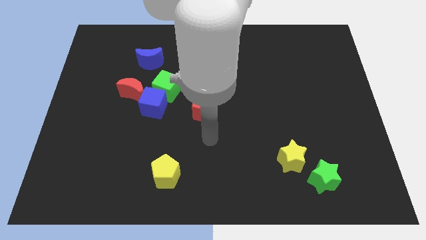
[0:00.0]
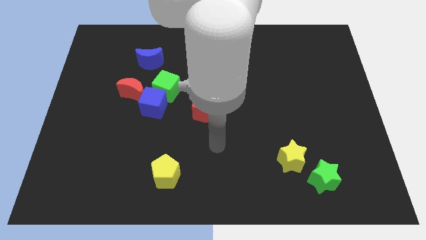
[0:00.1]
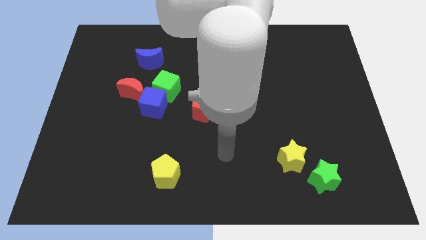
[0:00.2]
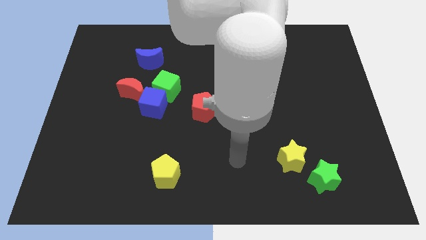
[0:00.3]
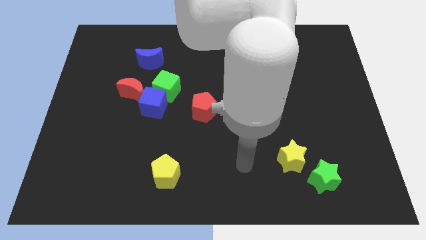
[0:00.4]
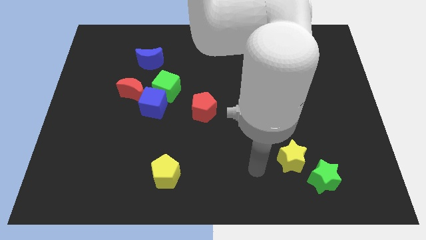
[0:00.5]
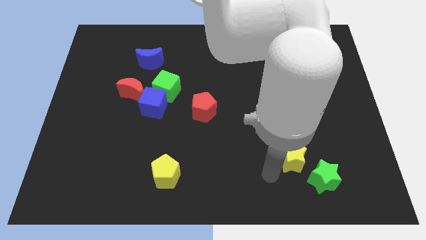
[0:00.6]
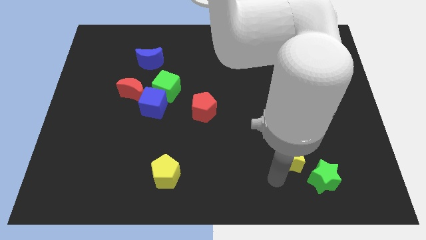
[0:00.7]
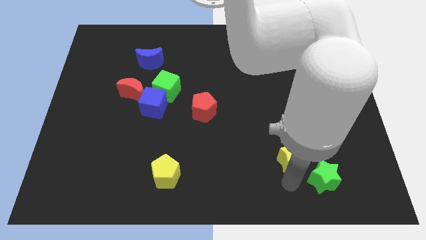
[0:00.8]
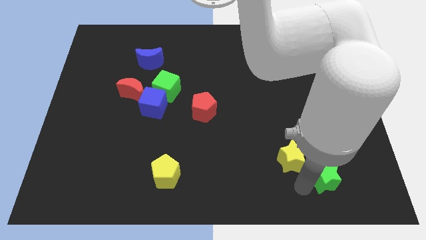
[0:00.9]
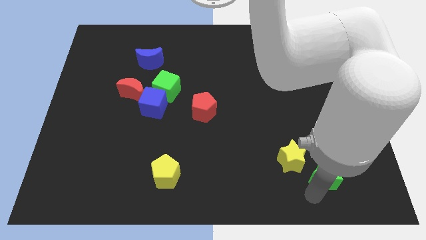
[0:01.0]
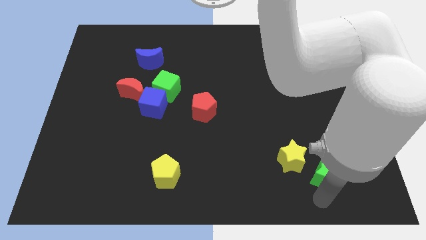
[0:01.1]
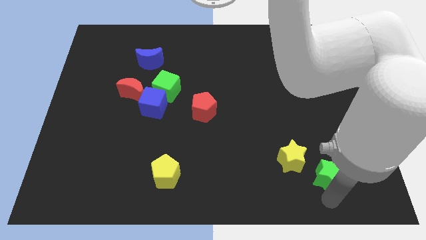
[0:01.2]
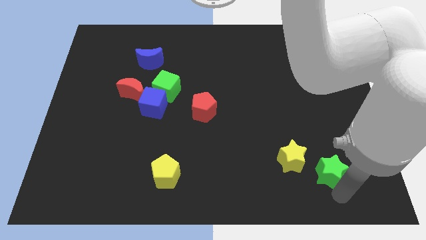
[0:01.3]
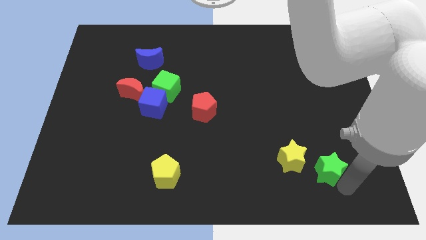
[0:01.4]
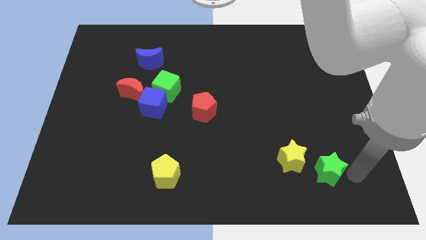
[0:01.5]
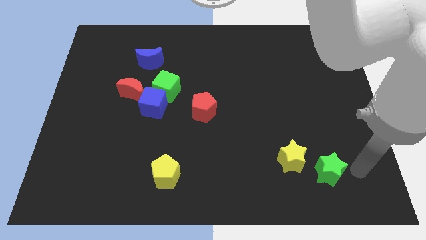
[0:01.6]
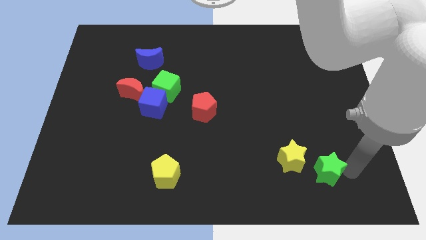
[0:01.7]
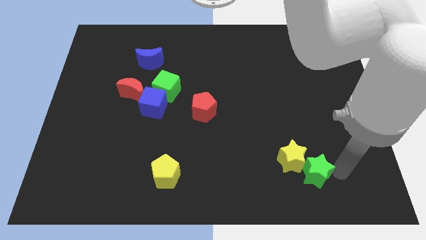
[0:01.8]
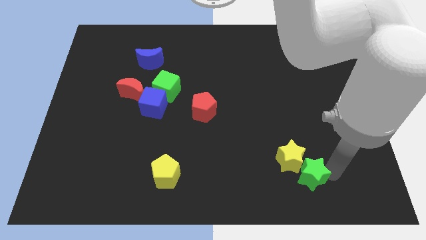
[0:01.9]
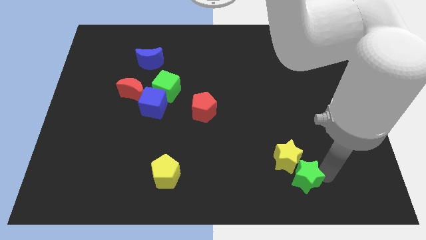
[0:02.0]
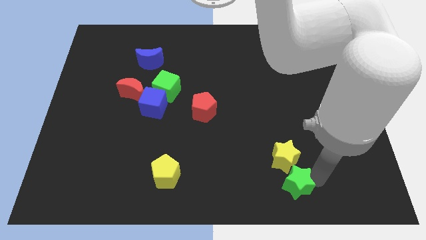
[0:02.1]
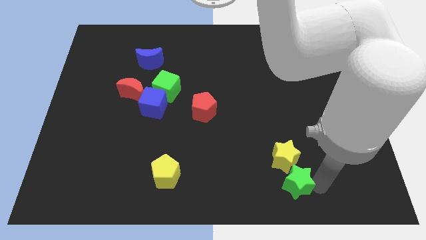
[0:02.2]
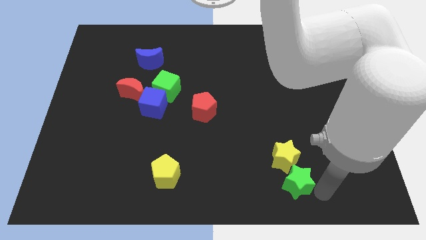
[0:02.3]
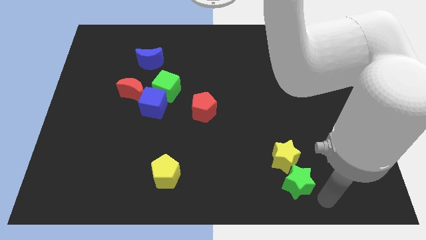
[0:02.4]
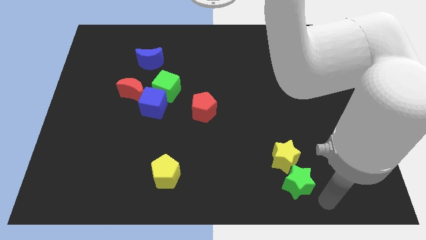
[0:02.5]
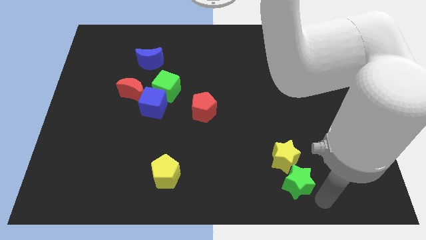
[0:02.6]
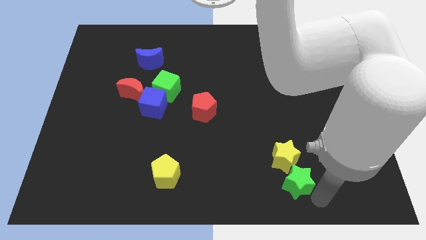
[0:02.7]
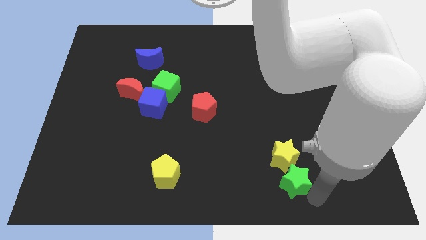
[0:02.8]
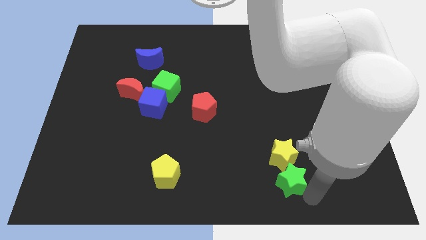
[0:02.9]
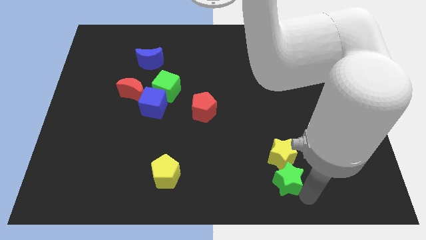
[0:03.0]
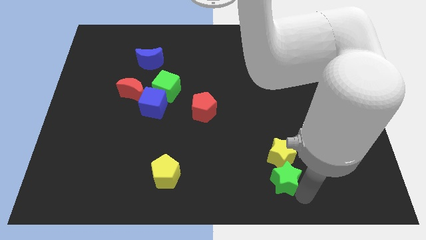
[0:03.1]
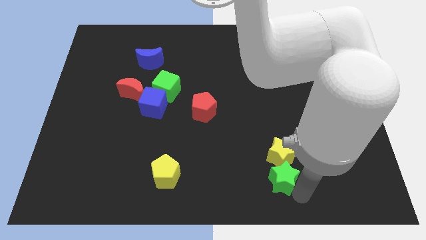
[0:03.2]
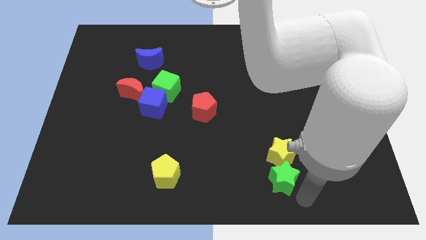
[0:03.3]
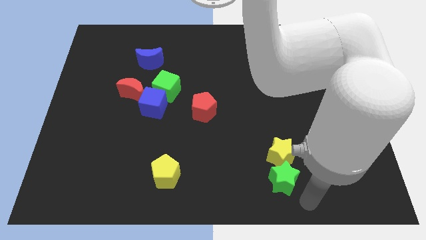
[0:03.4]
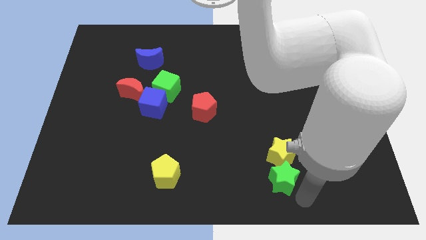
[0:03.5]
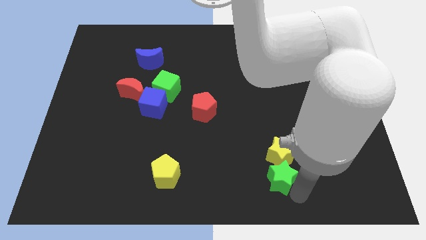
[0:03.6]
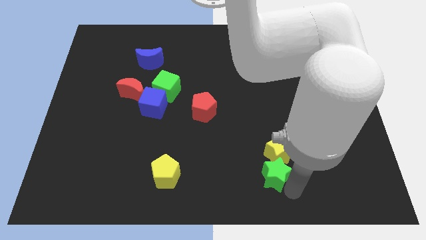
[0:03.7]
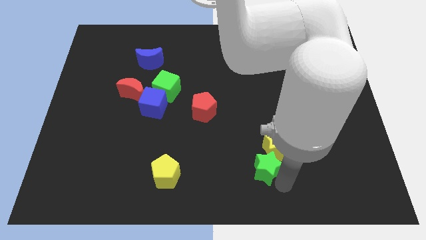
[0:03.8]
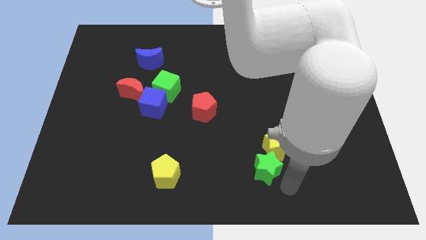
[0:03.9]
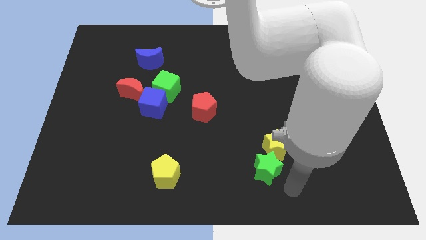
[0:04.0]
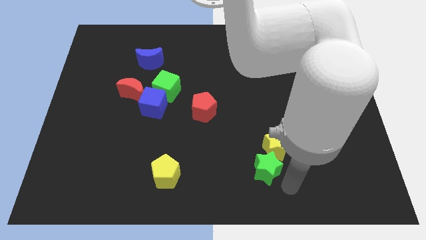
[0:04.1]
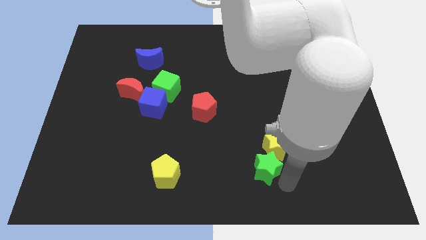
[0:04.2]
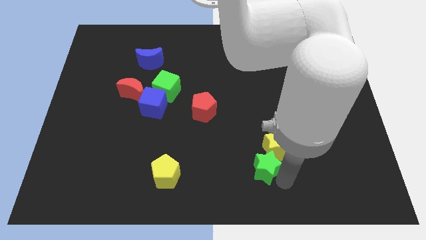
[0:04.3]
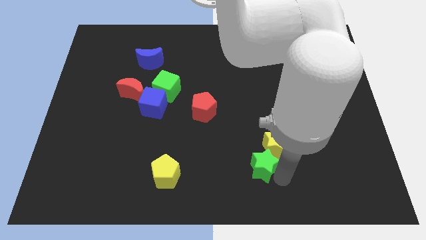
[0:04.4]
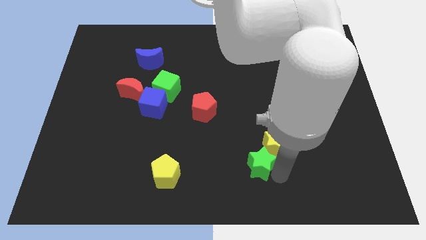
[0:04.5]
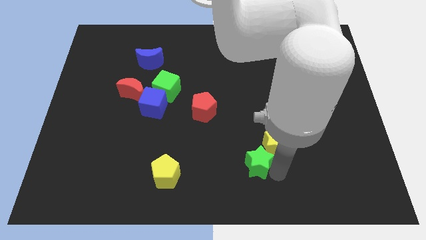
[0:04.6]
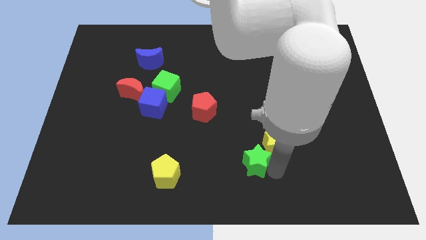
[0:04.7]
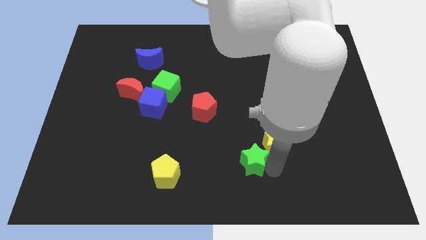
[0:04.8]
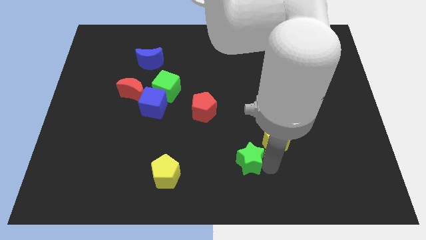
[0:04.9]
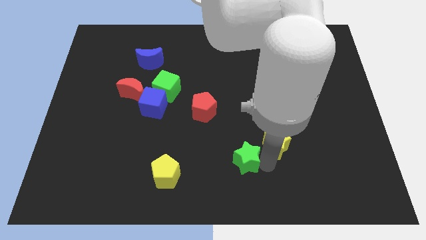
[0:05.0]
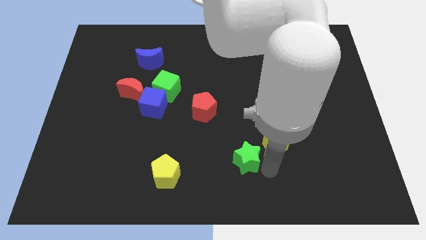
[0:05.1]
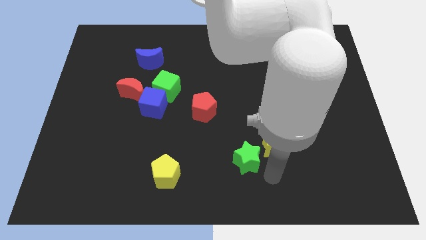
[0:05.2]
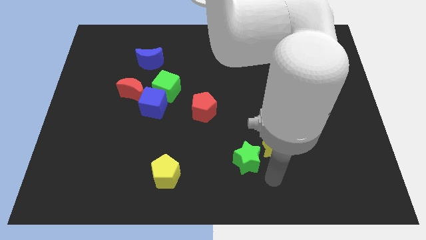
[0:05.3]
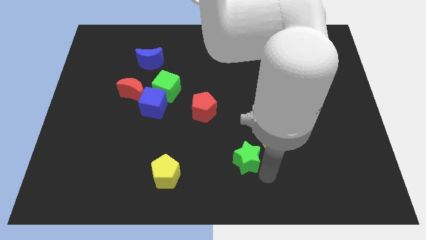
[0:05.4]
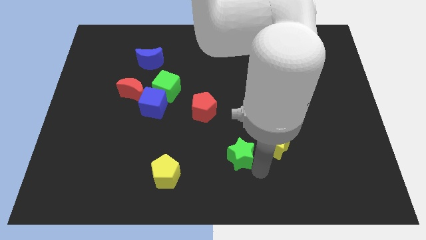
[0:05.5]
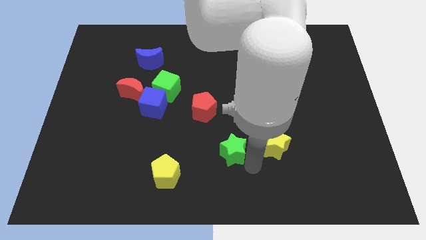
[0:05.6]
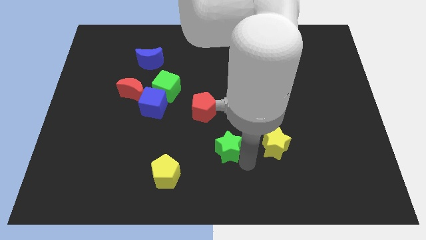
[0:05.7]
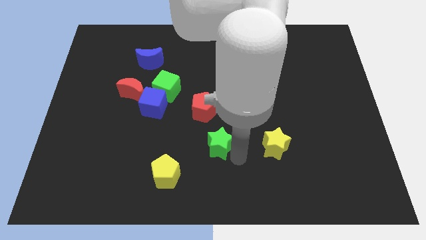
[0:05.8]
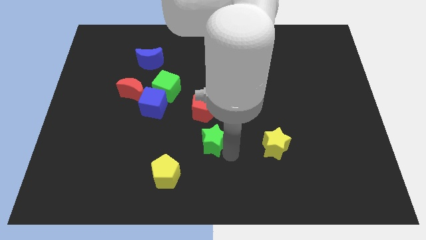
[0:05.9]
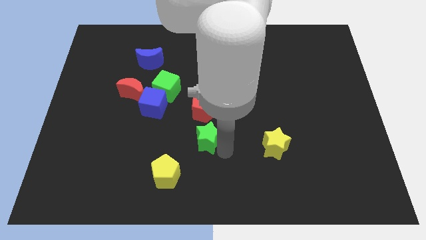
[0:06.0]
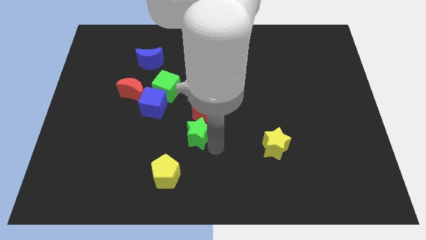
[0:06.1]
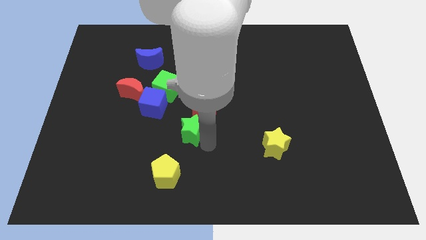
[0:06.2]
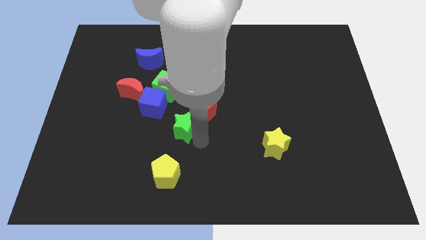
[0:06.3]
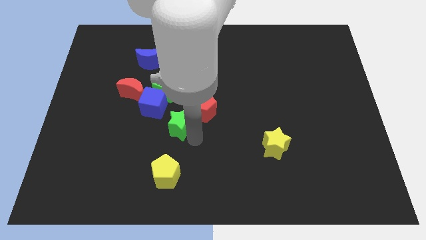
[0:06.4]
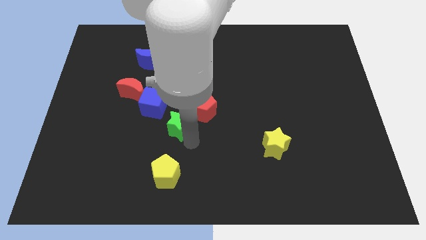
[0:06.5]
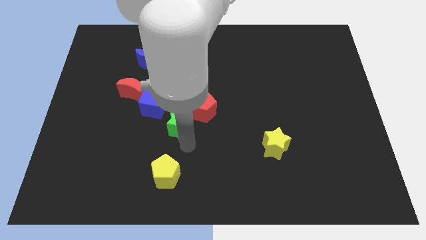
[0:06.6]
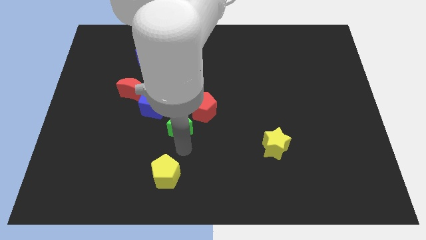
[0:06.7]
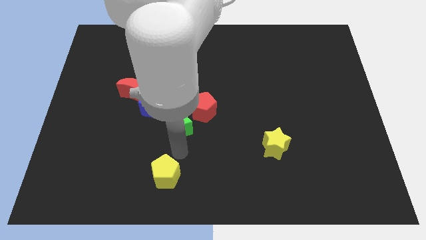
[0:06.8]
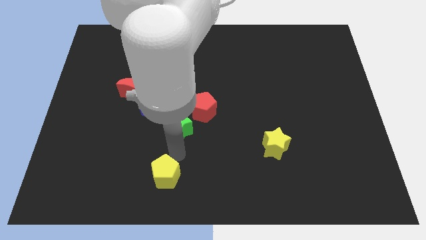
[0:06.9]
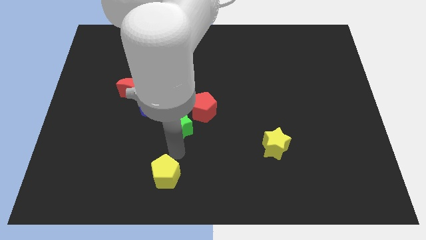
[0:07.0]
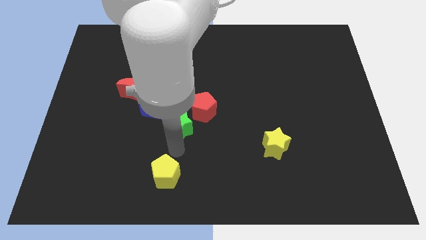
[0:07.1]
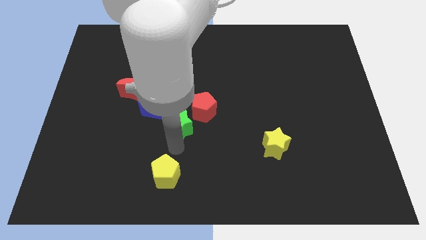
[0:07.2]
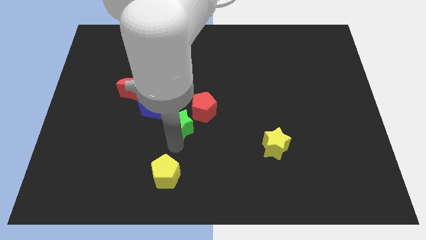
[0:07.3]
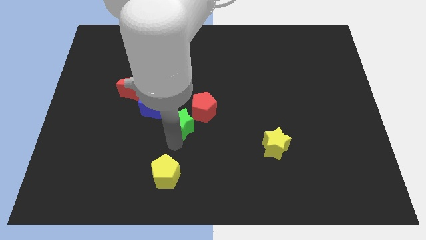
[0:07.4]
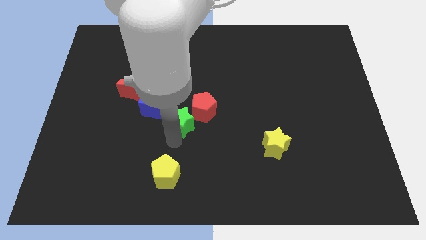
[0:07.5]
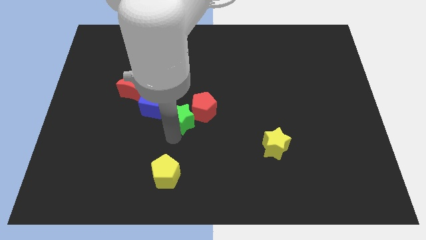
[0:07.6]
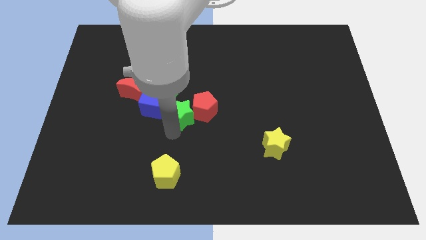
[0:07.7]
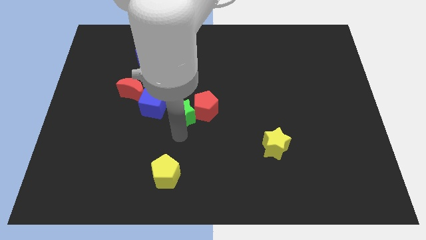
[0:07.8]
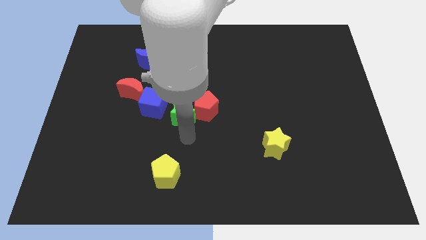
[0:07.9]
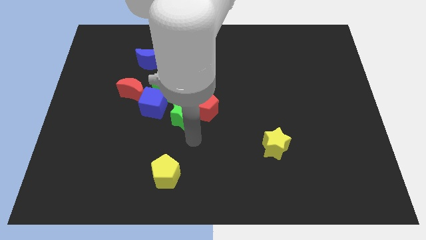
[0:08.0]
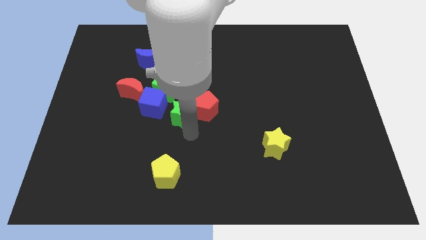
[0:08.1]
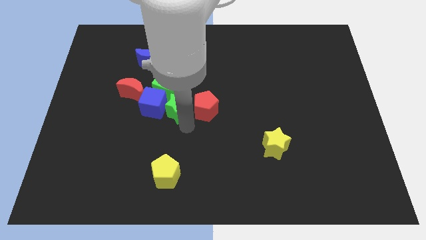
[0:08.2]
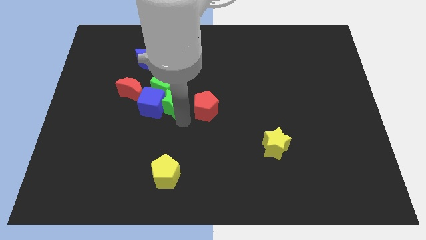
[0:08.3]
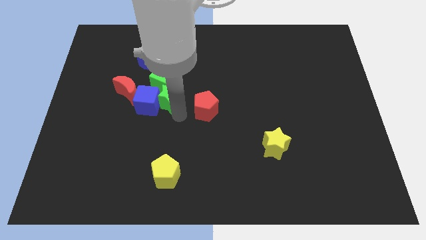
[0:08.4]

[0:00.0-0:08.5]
put the green star close to the green cube
